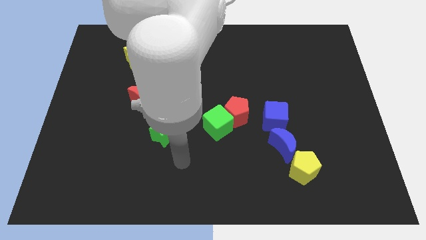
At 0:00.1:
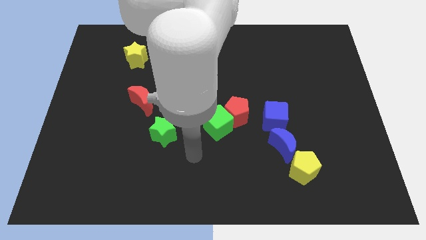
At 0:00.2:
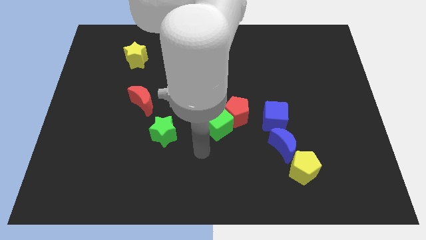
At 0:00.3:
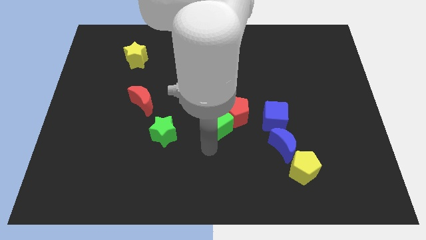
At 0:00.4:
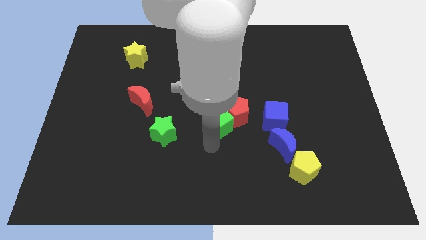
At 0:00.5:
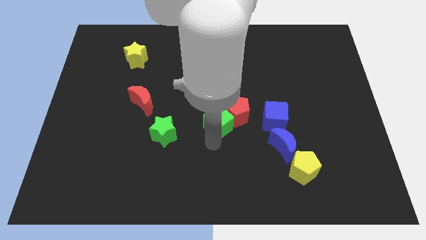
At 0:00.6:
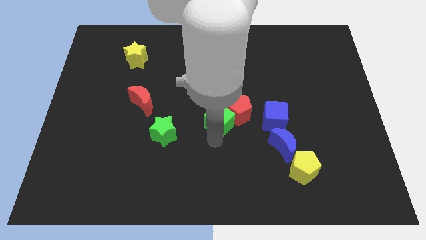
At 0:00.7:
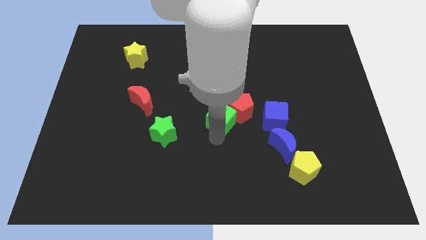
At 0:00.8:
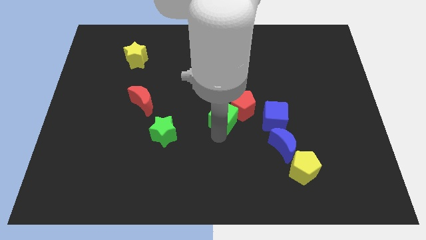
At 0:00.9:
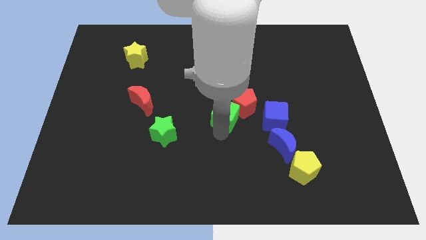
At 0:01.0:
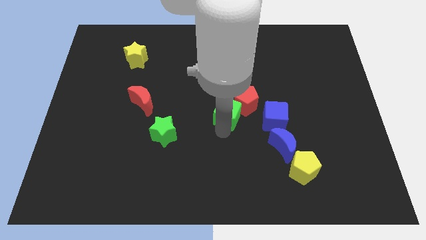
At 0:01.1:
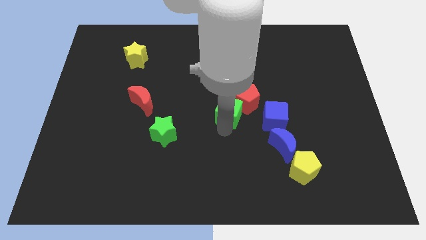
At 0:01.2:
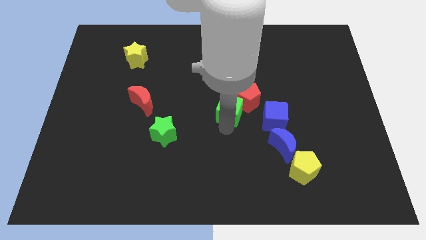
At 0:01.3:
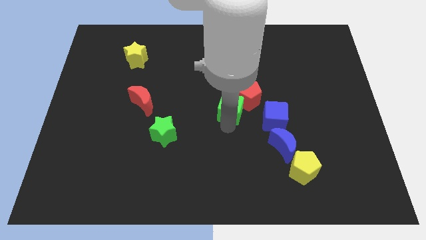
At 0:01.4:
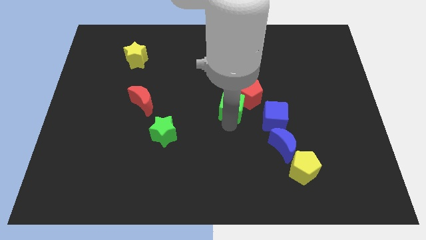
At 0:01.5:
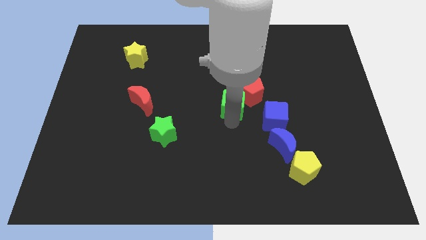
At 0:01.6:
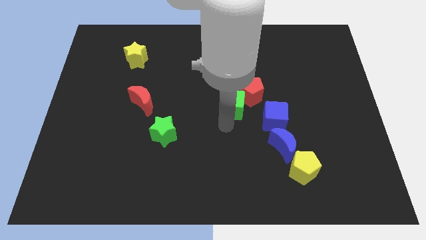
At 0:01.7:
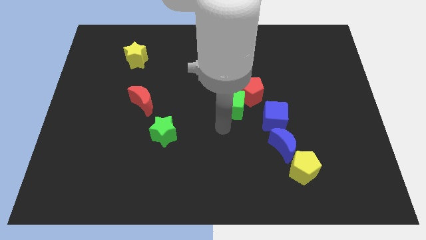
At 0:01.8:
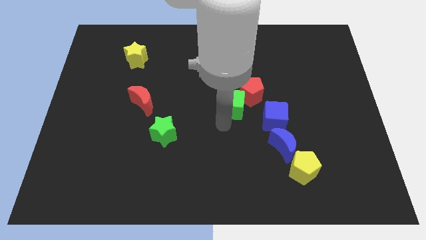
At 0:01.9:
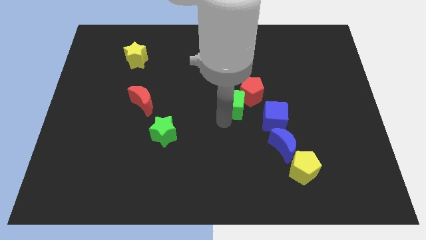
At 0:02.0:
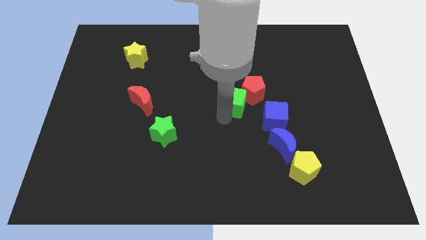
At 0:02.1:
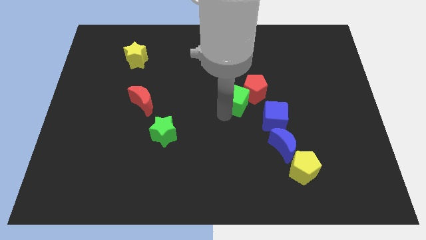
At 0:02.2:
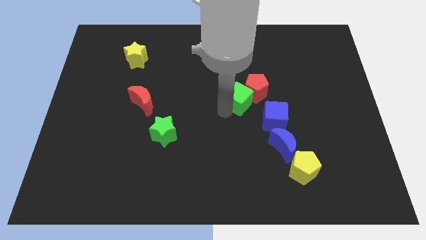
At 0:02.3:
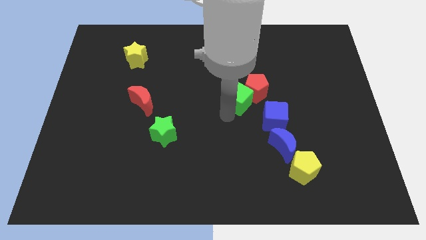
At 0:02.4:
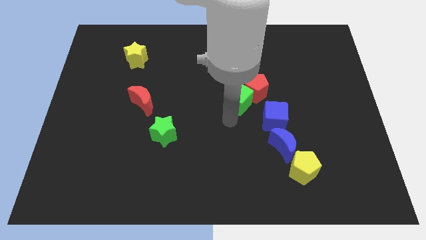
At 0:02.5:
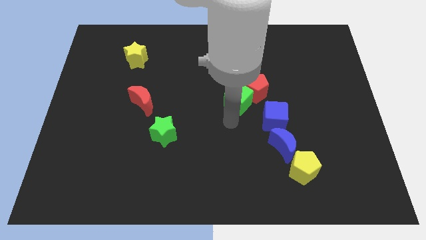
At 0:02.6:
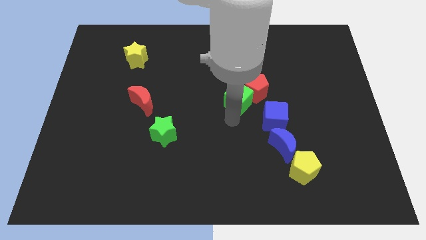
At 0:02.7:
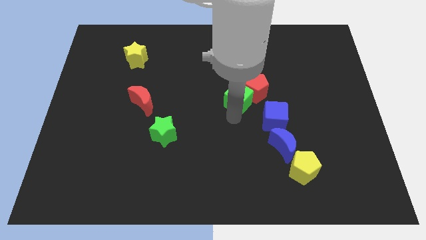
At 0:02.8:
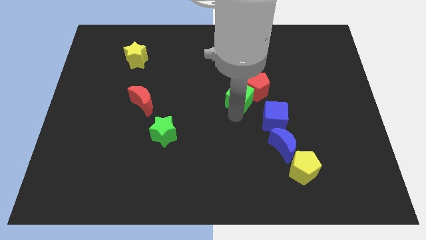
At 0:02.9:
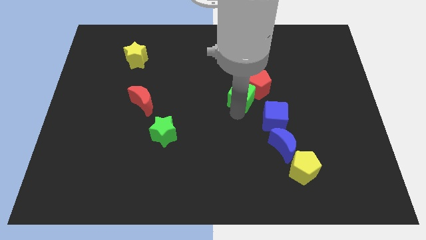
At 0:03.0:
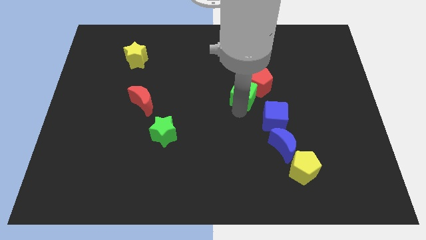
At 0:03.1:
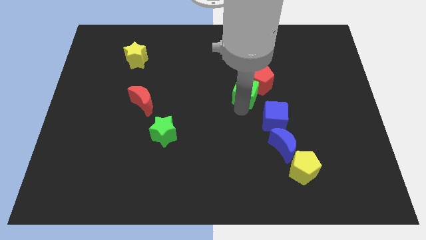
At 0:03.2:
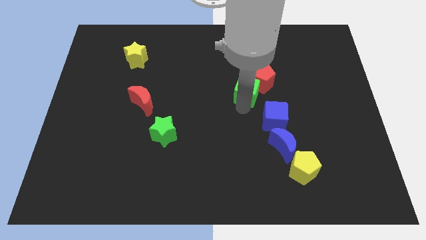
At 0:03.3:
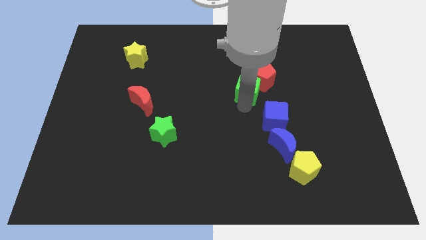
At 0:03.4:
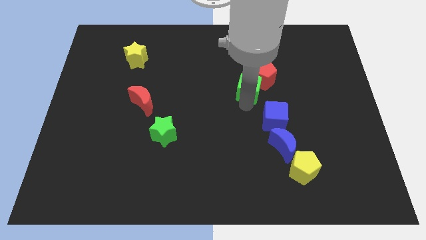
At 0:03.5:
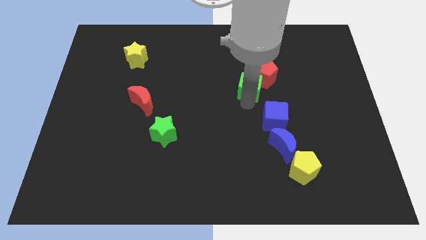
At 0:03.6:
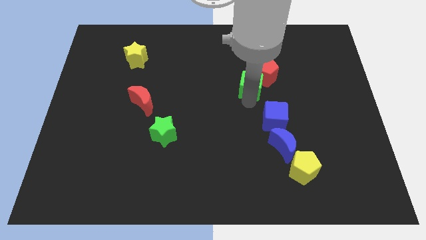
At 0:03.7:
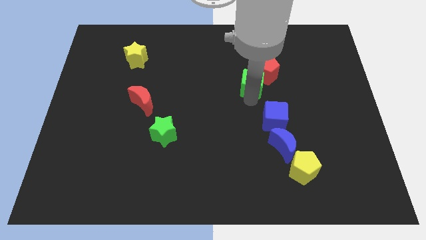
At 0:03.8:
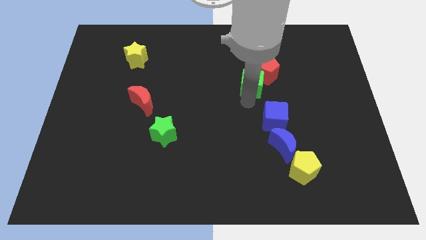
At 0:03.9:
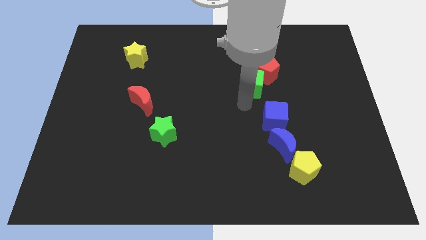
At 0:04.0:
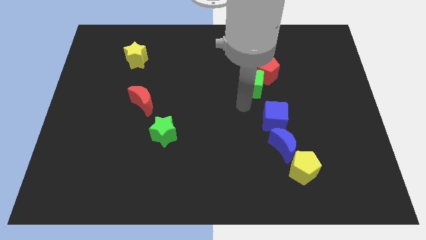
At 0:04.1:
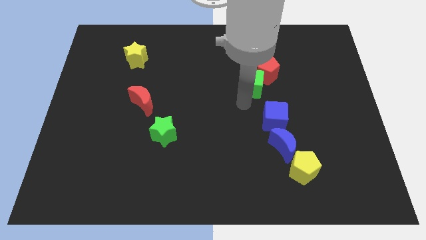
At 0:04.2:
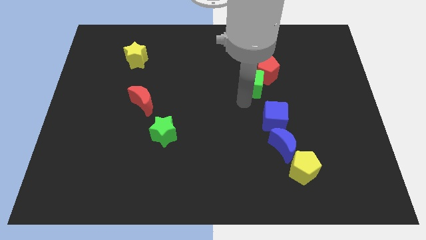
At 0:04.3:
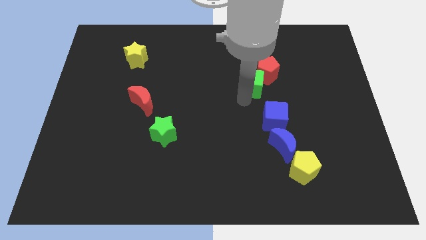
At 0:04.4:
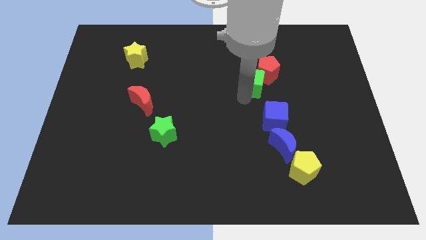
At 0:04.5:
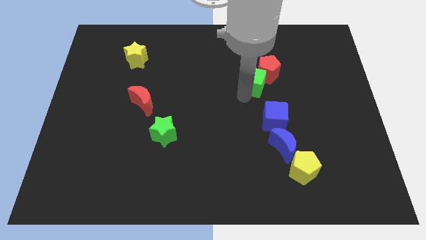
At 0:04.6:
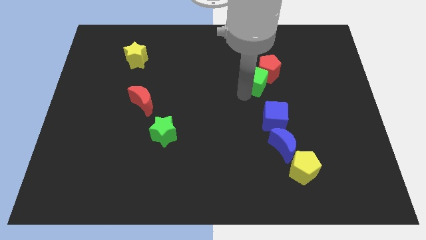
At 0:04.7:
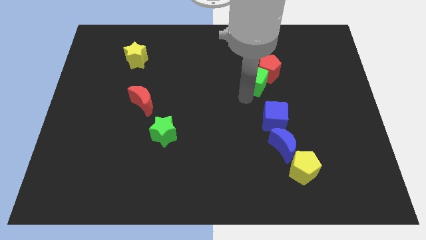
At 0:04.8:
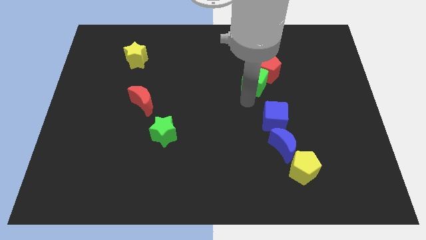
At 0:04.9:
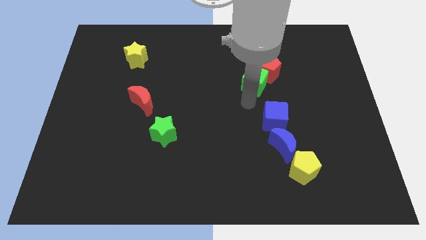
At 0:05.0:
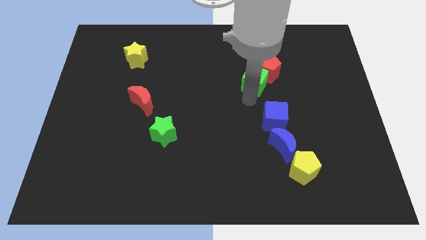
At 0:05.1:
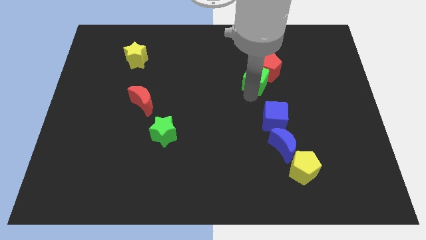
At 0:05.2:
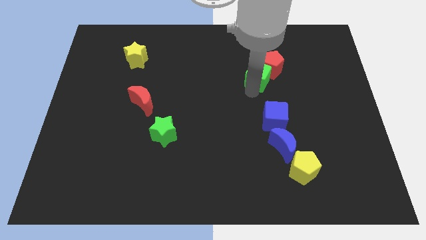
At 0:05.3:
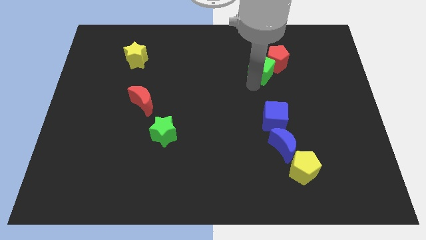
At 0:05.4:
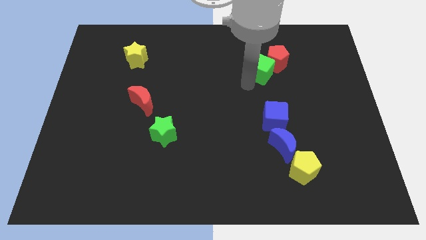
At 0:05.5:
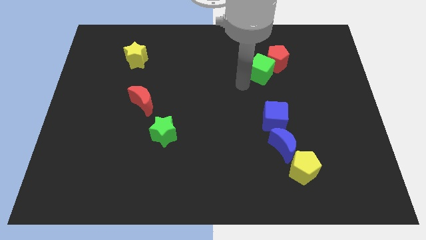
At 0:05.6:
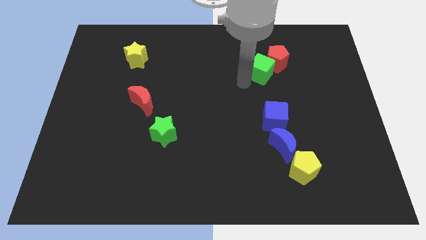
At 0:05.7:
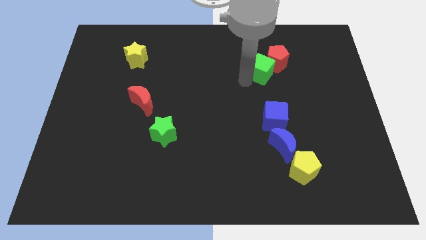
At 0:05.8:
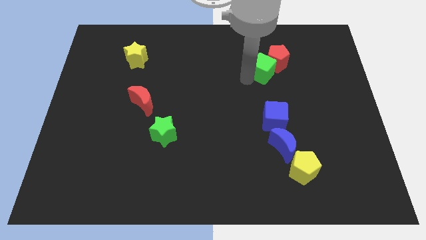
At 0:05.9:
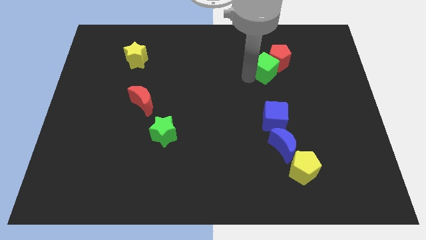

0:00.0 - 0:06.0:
slide the green cube up and then to the right

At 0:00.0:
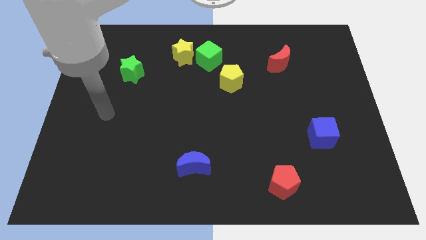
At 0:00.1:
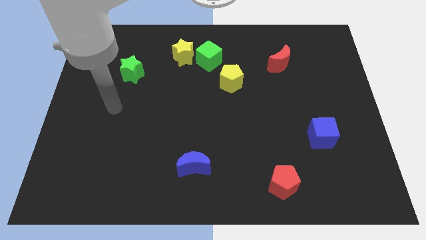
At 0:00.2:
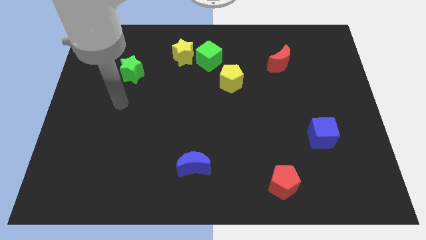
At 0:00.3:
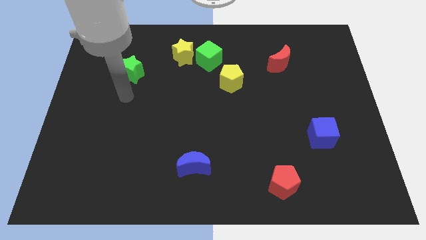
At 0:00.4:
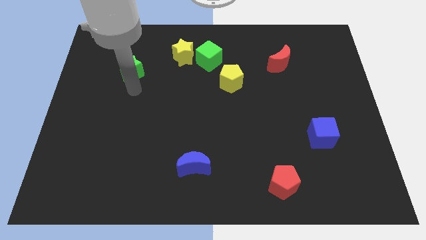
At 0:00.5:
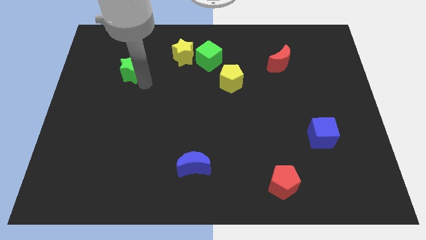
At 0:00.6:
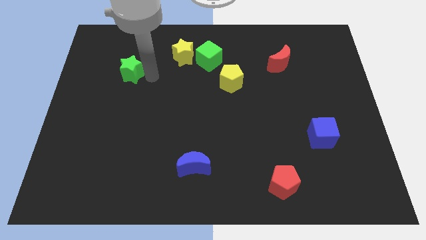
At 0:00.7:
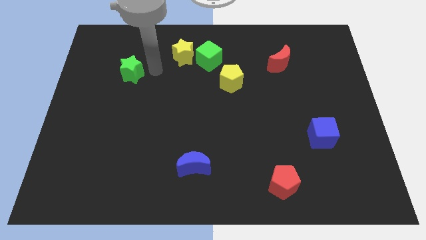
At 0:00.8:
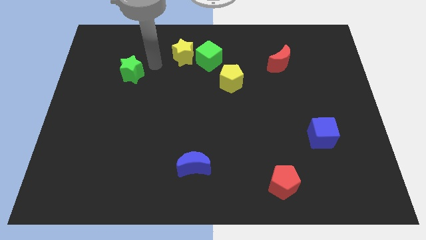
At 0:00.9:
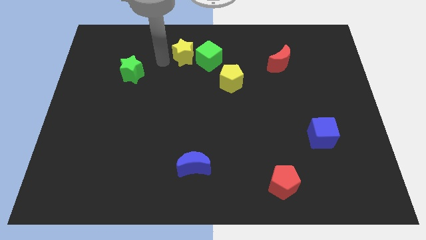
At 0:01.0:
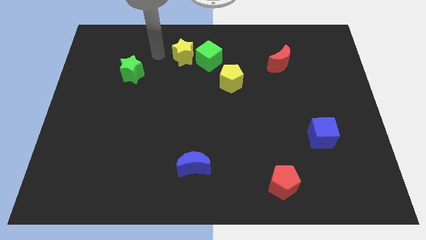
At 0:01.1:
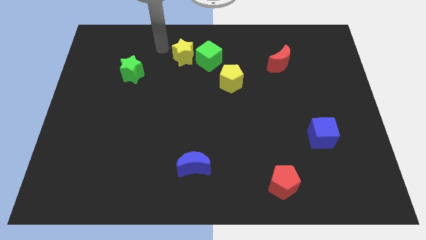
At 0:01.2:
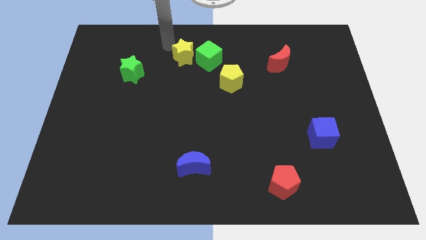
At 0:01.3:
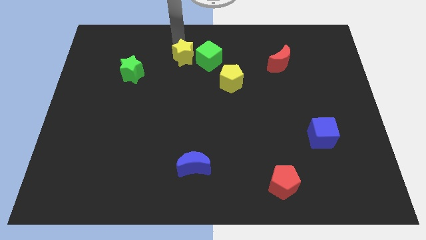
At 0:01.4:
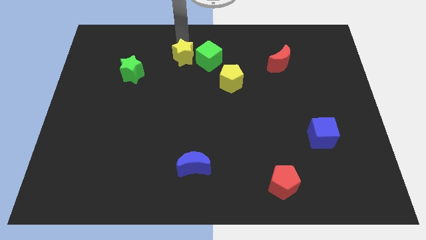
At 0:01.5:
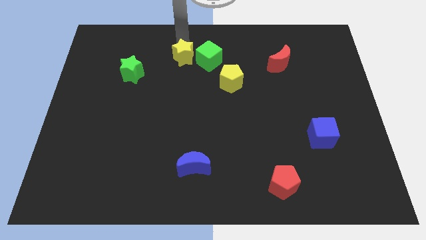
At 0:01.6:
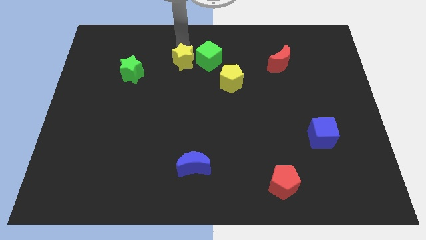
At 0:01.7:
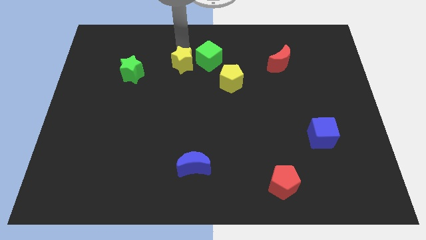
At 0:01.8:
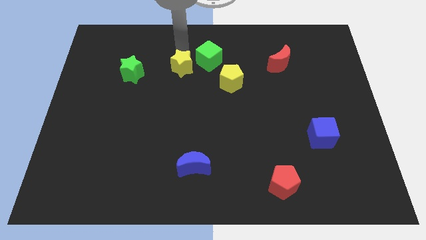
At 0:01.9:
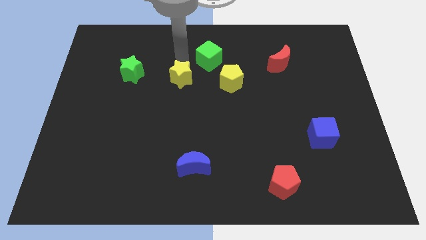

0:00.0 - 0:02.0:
slightly move the yellow star downwards

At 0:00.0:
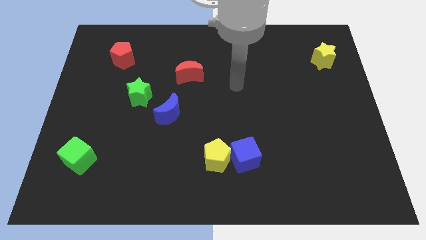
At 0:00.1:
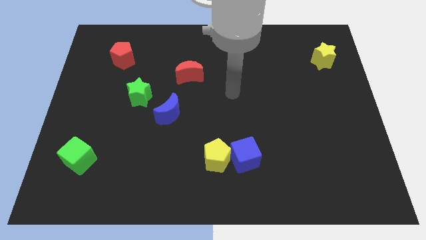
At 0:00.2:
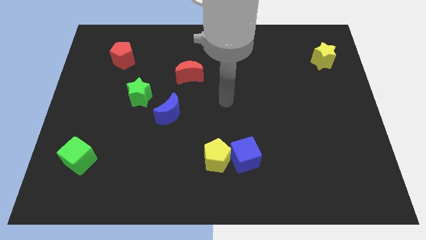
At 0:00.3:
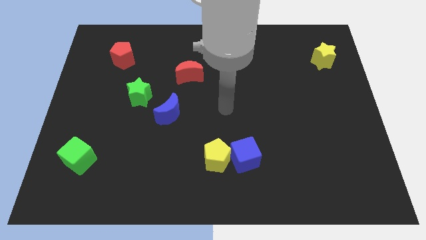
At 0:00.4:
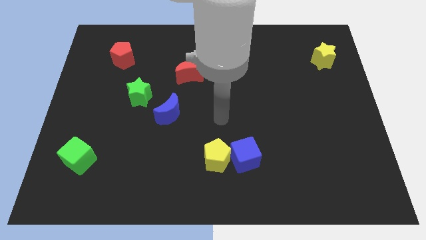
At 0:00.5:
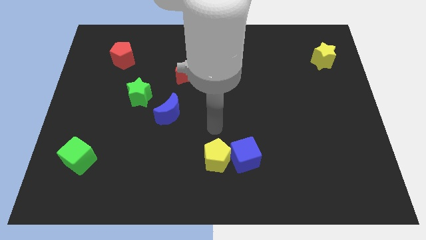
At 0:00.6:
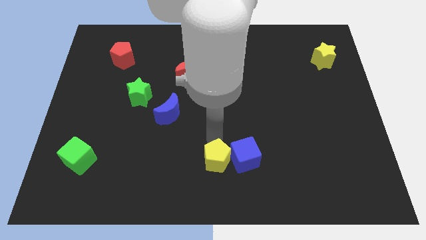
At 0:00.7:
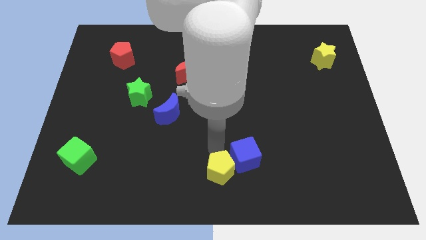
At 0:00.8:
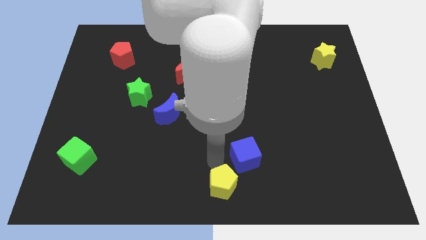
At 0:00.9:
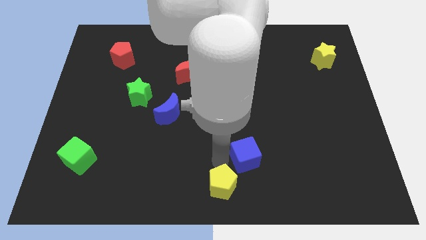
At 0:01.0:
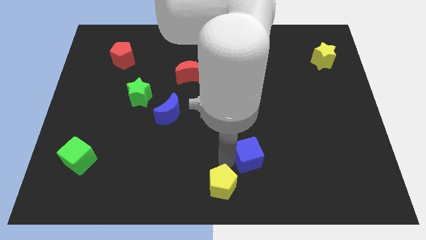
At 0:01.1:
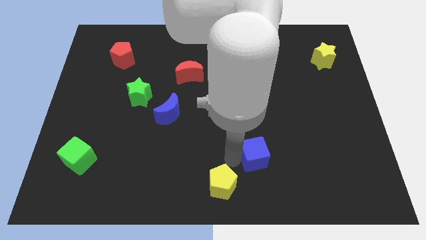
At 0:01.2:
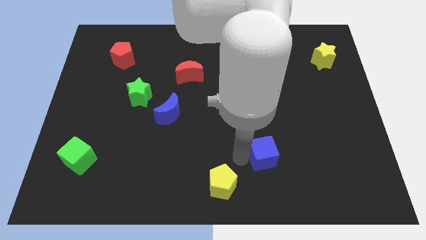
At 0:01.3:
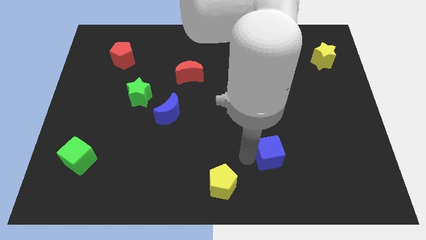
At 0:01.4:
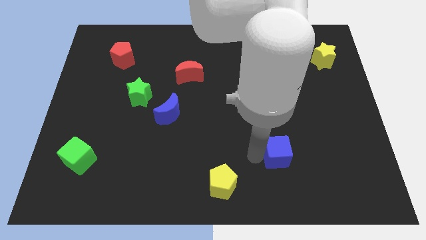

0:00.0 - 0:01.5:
push the blue cube slightly right
